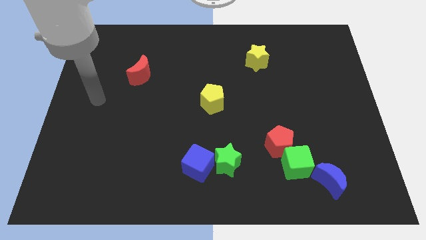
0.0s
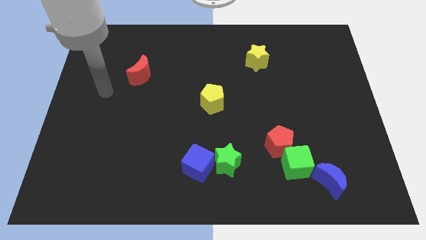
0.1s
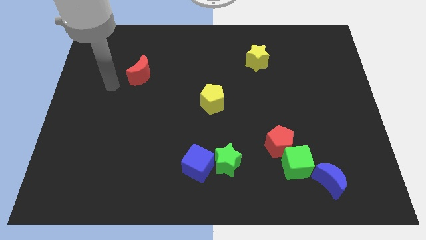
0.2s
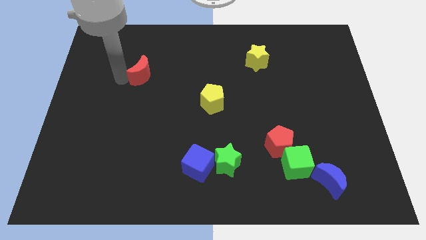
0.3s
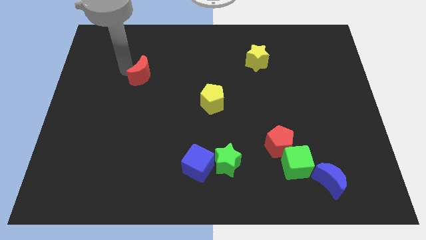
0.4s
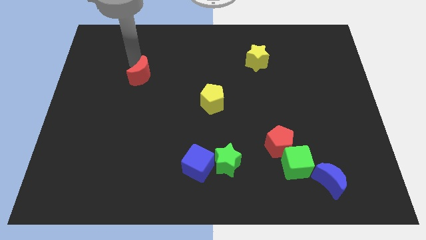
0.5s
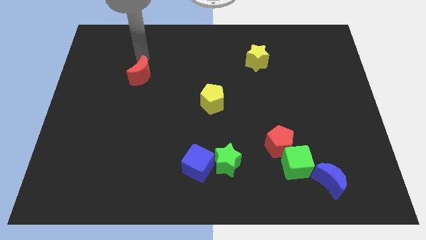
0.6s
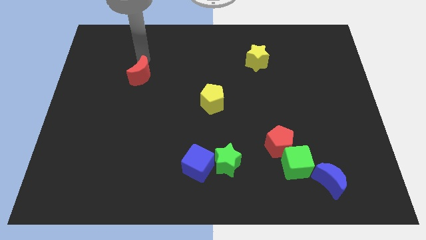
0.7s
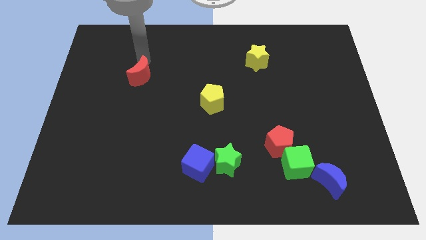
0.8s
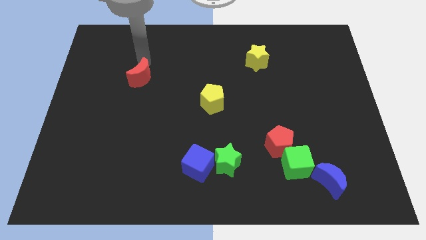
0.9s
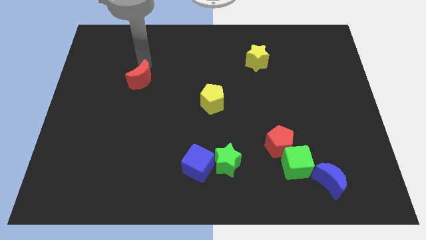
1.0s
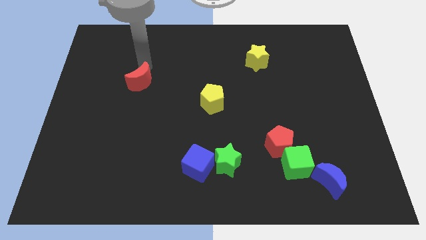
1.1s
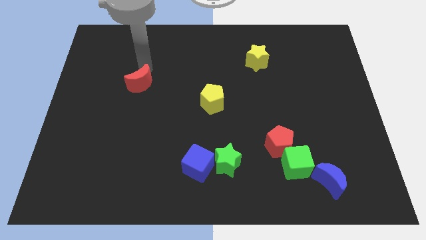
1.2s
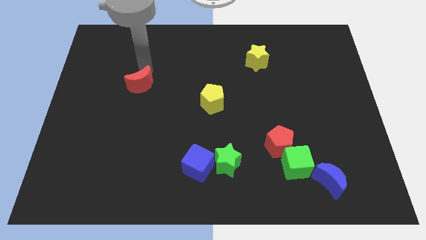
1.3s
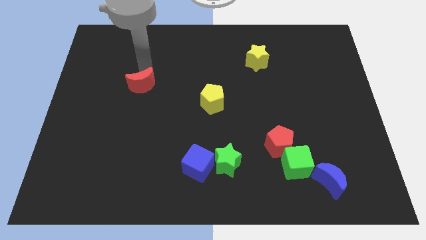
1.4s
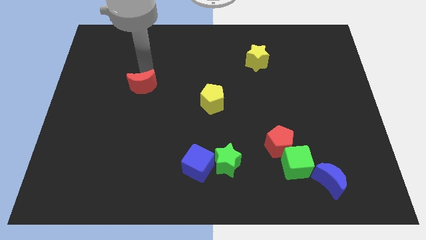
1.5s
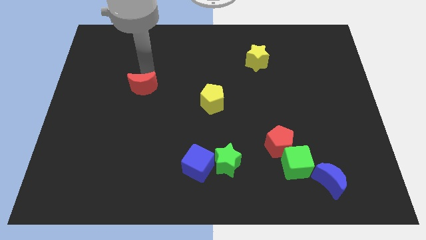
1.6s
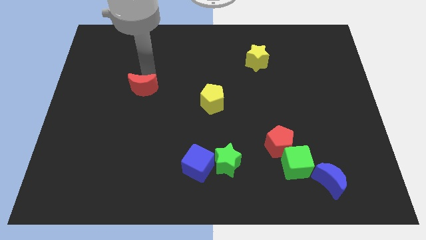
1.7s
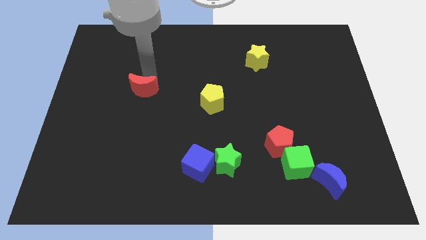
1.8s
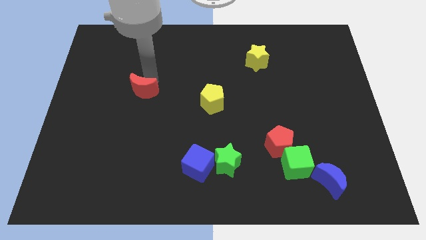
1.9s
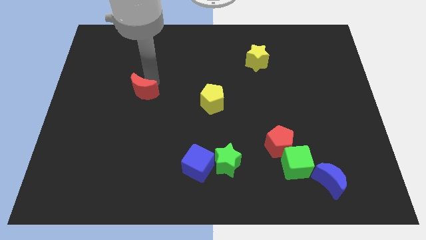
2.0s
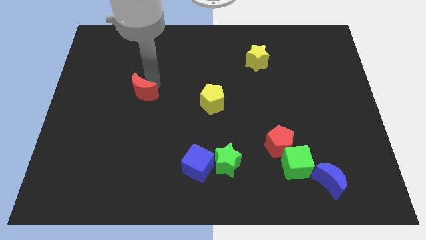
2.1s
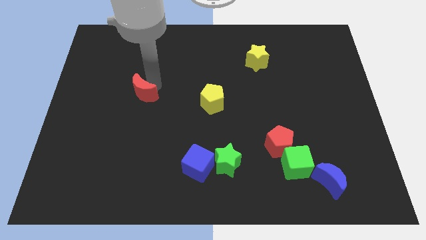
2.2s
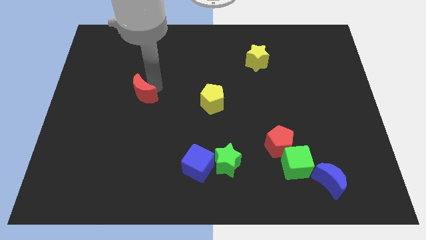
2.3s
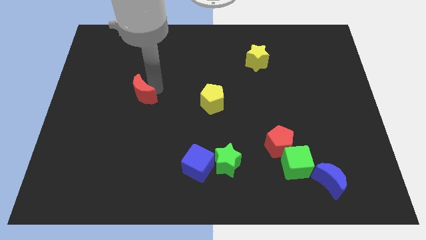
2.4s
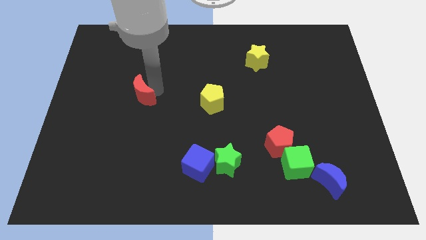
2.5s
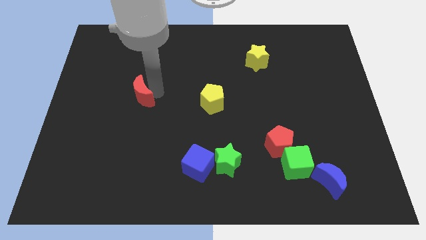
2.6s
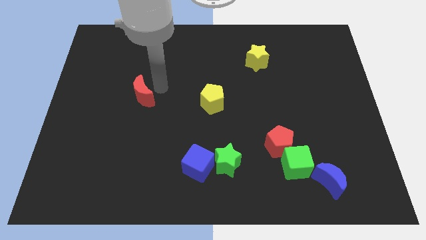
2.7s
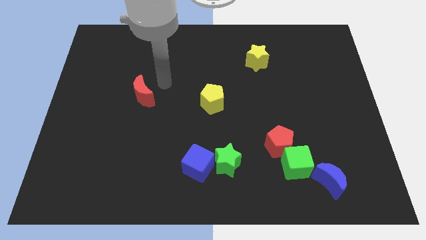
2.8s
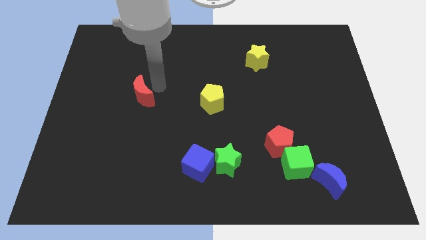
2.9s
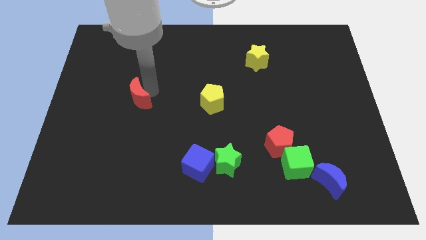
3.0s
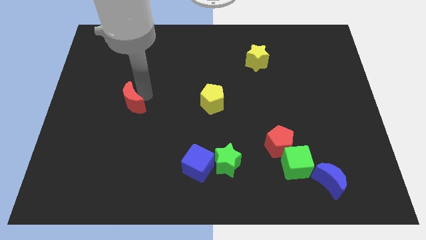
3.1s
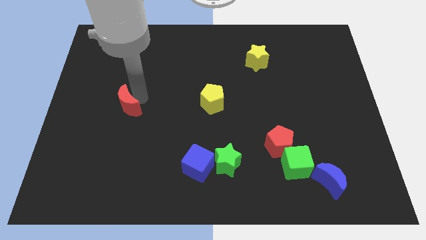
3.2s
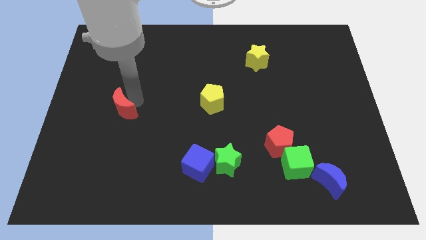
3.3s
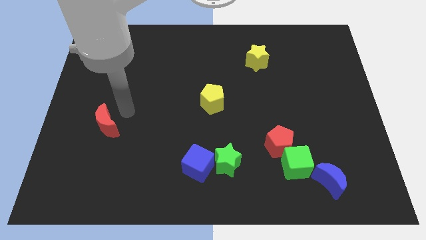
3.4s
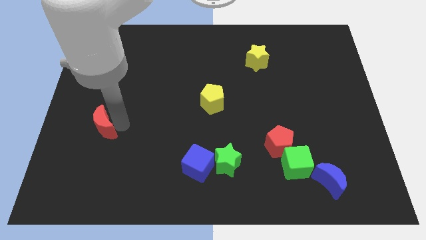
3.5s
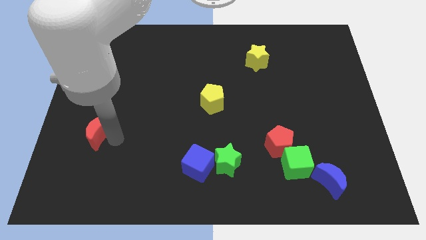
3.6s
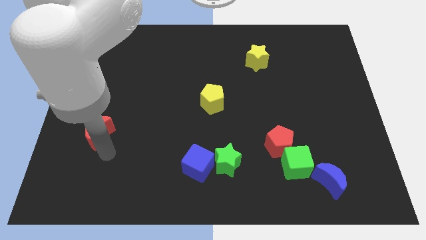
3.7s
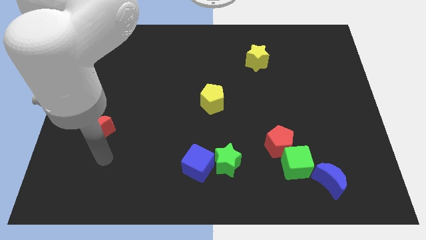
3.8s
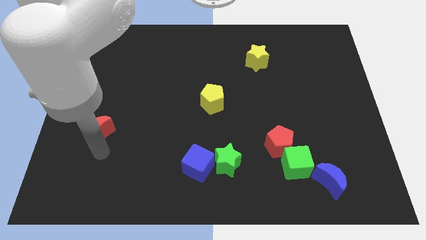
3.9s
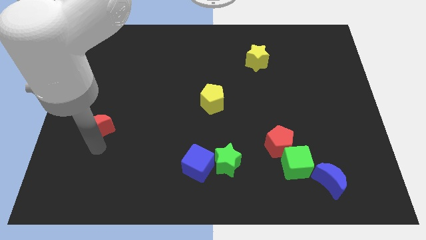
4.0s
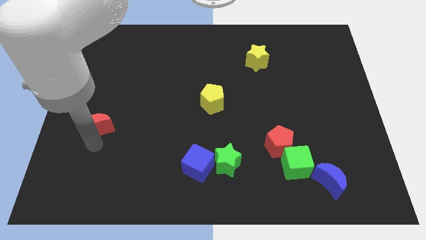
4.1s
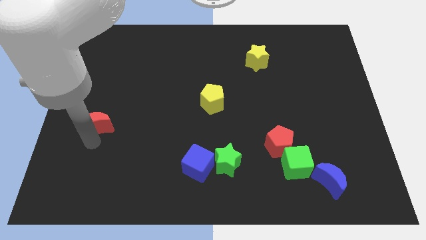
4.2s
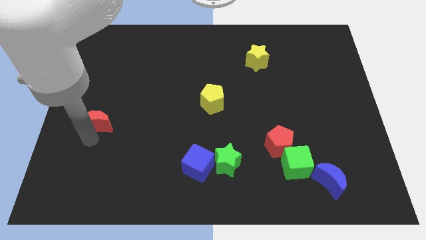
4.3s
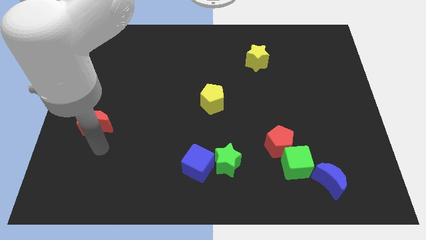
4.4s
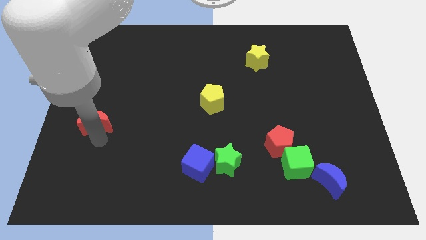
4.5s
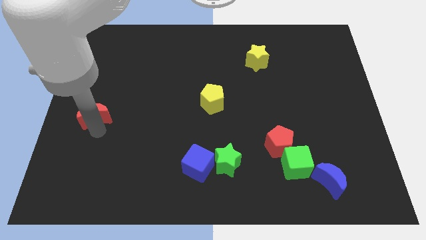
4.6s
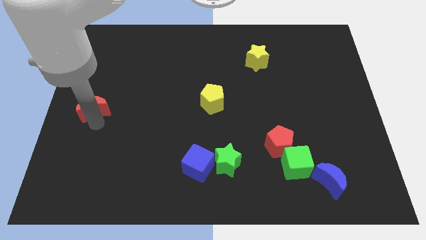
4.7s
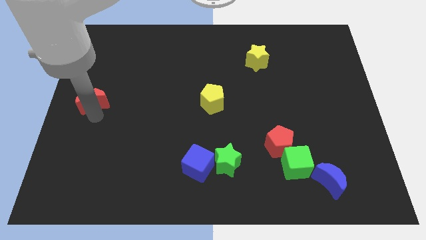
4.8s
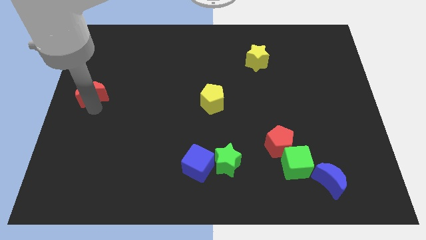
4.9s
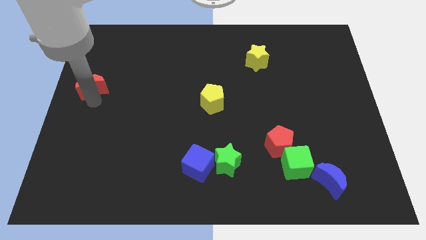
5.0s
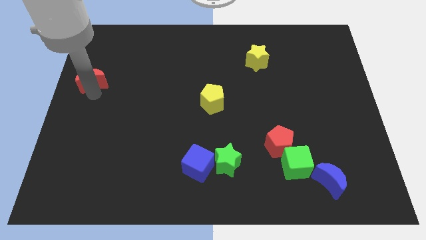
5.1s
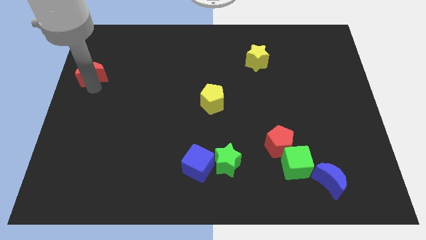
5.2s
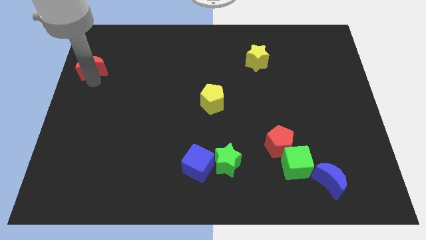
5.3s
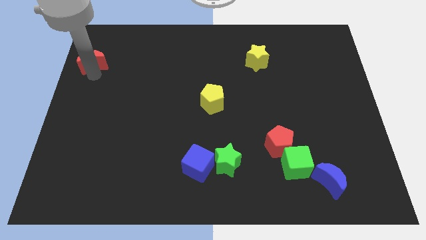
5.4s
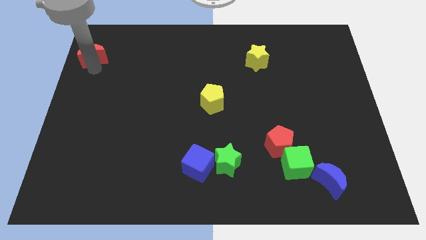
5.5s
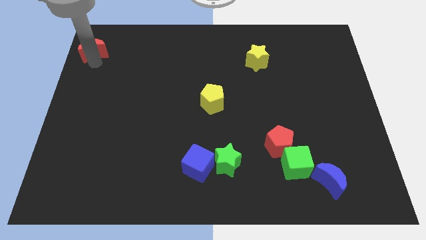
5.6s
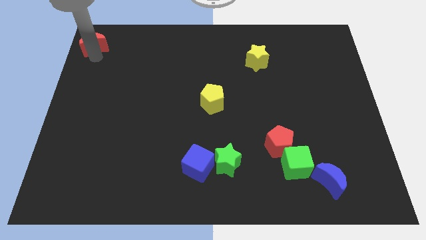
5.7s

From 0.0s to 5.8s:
put the red moon to the upper left corner
